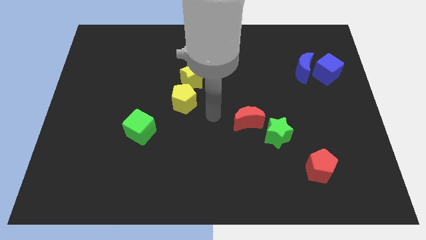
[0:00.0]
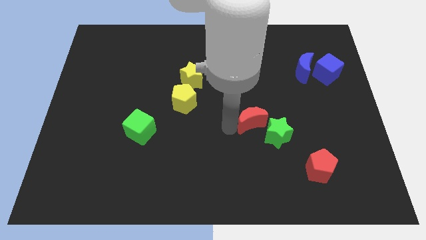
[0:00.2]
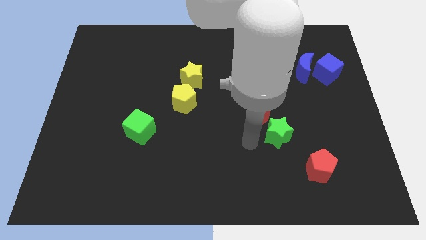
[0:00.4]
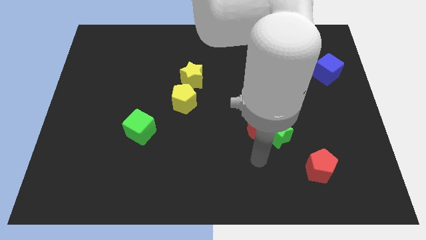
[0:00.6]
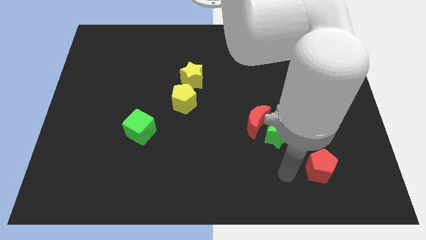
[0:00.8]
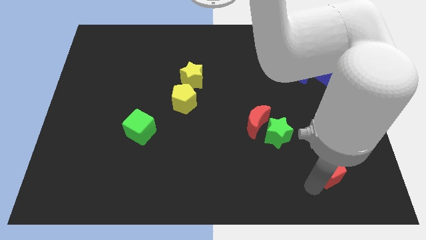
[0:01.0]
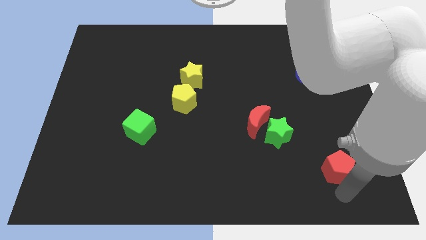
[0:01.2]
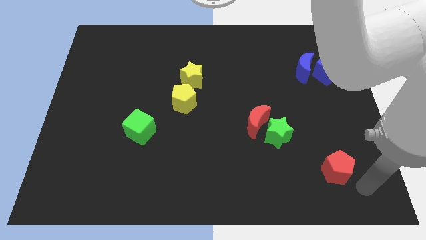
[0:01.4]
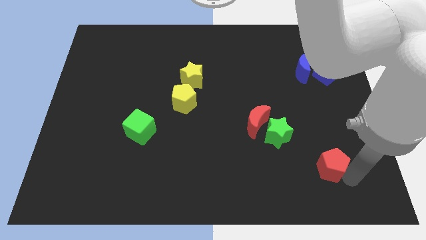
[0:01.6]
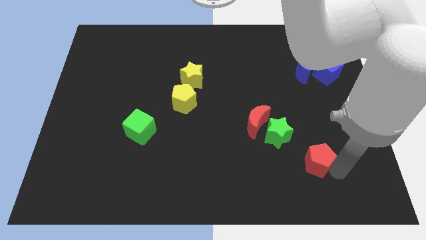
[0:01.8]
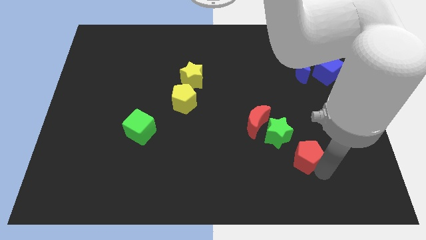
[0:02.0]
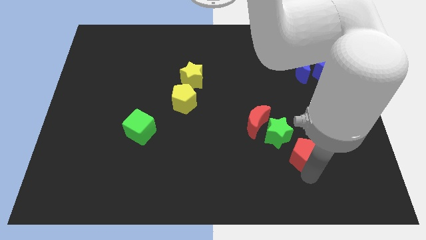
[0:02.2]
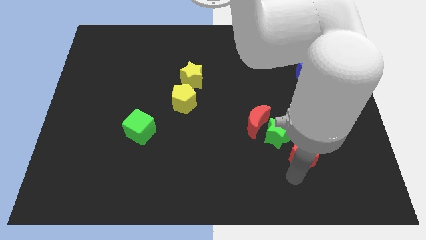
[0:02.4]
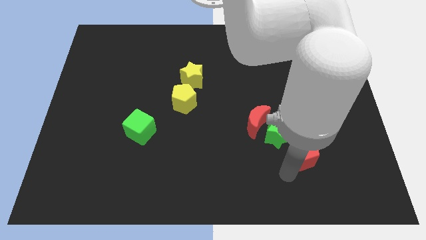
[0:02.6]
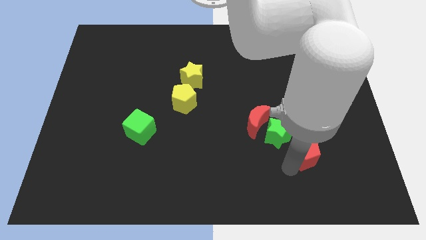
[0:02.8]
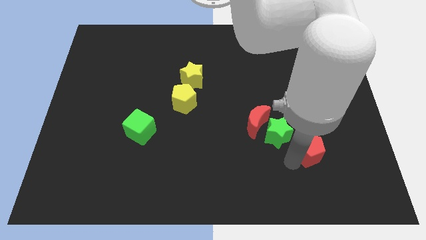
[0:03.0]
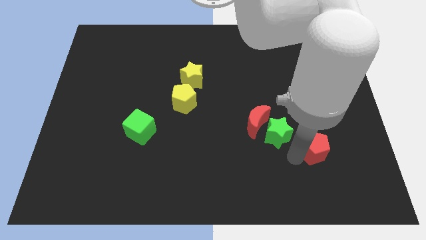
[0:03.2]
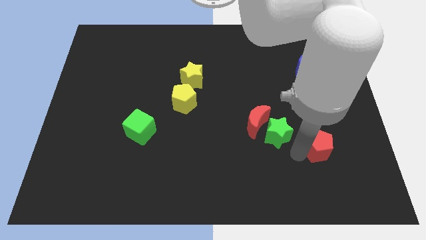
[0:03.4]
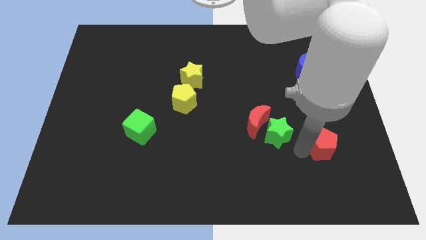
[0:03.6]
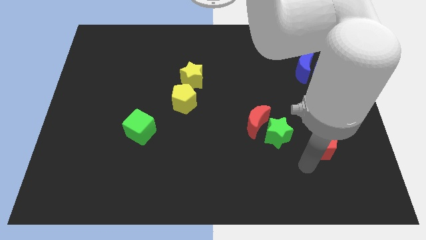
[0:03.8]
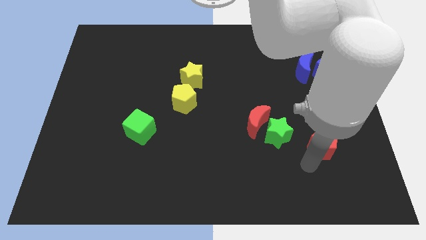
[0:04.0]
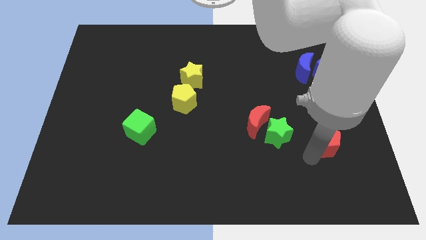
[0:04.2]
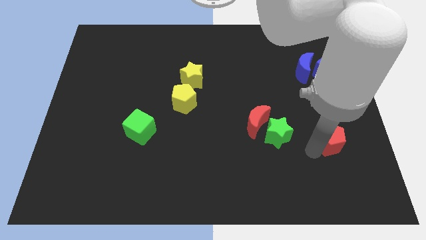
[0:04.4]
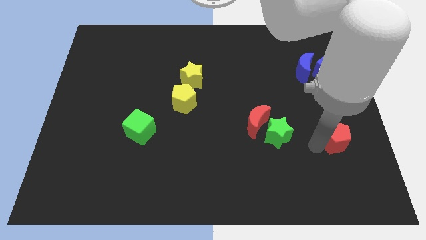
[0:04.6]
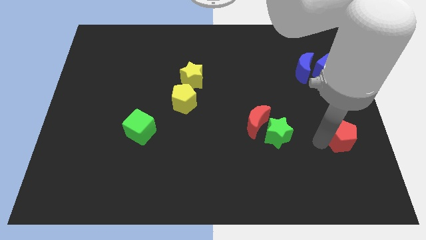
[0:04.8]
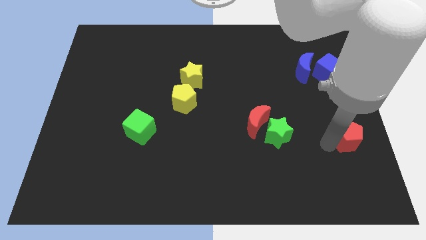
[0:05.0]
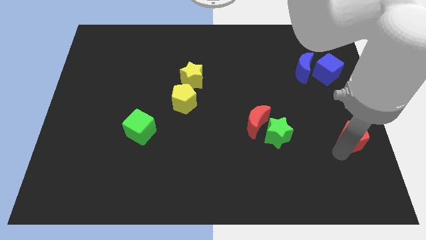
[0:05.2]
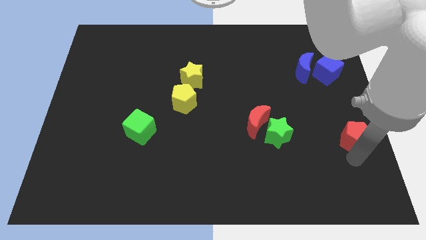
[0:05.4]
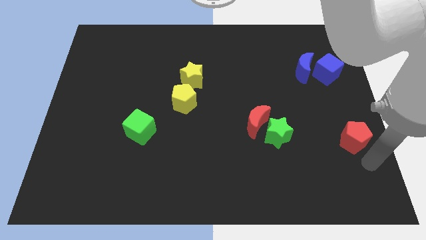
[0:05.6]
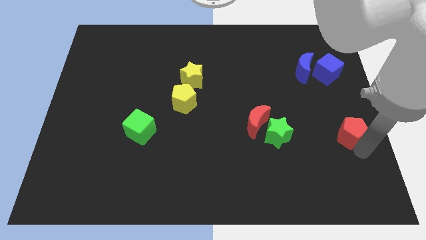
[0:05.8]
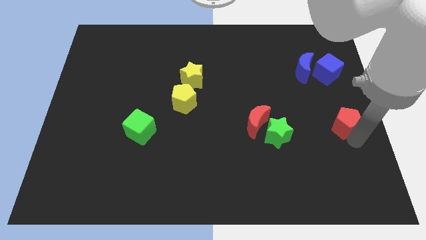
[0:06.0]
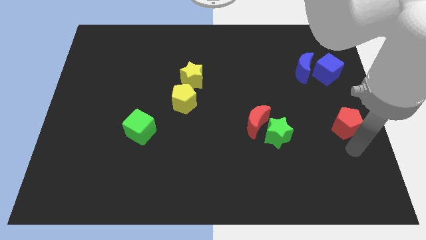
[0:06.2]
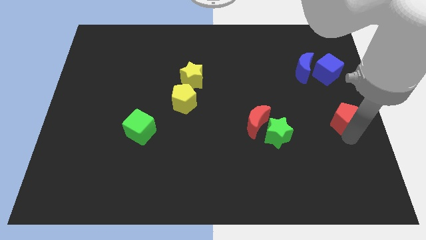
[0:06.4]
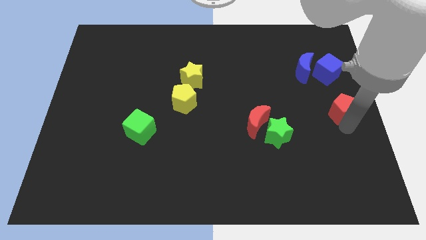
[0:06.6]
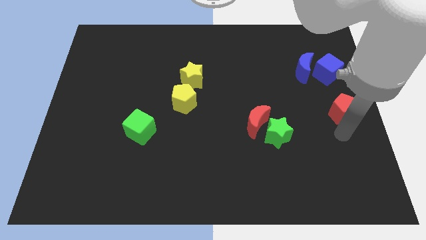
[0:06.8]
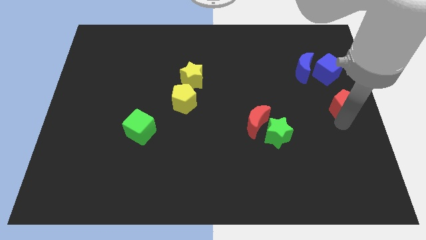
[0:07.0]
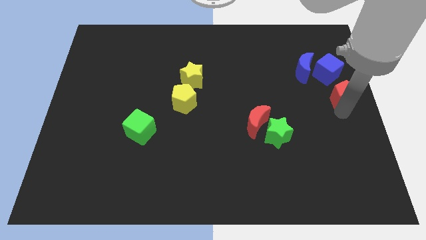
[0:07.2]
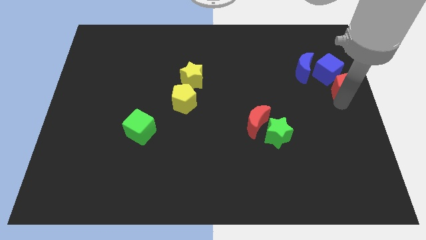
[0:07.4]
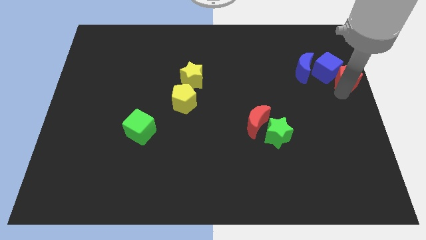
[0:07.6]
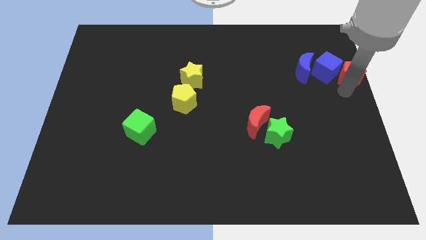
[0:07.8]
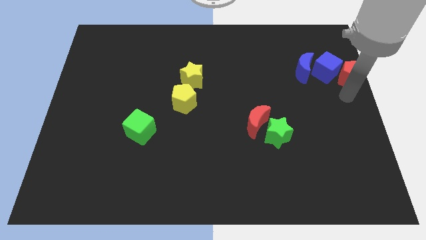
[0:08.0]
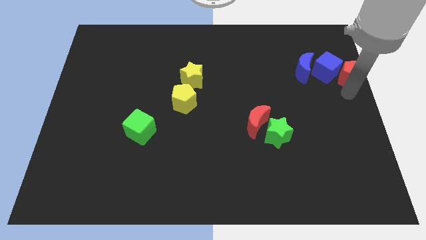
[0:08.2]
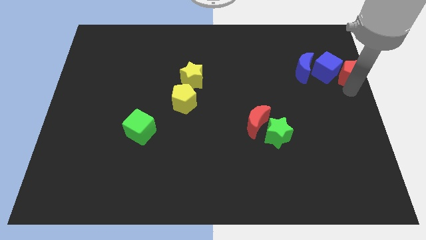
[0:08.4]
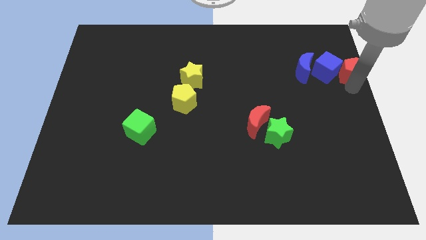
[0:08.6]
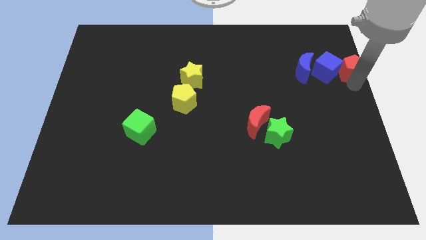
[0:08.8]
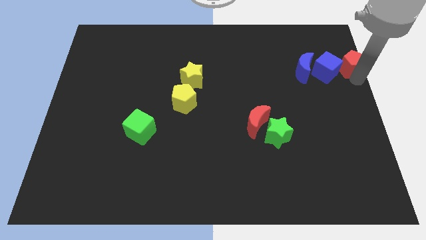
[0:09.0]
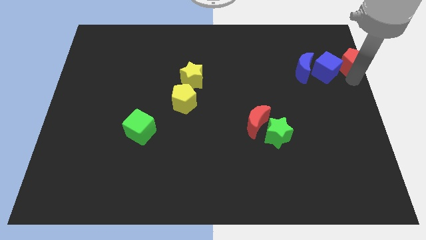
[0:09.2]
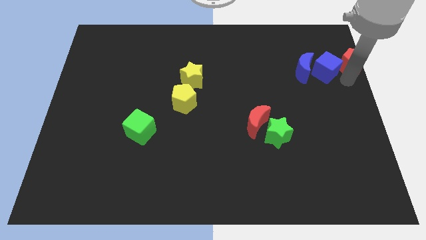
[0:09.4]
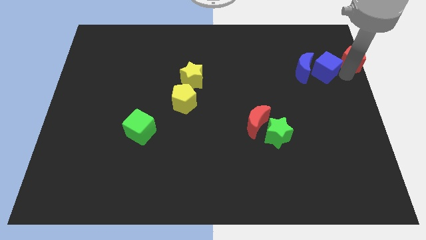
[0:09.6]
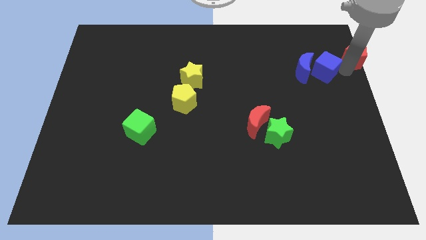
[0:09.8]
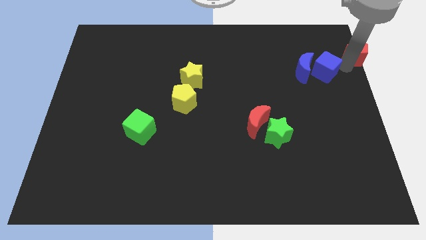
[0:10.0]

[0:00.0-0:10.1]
move the red pentagon to the top right of the board
